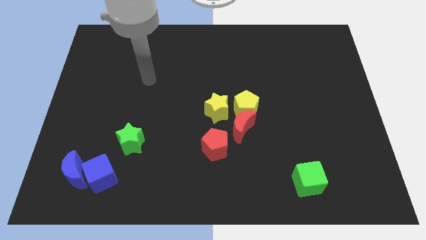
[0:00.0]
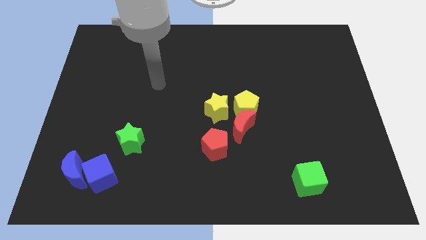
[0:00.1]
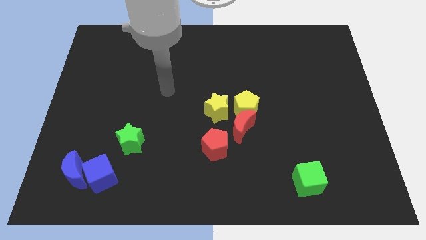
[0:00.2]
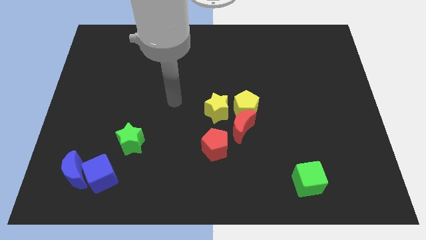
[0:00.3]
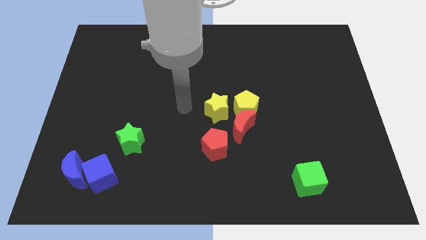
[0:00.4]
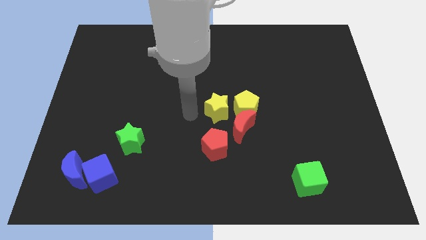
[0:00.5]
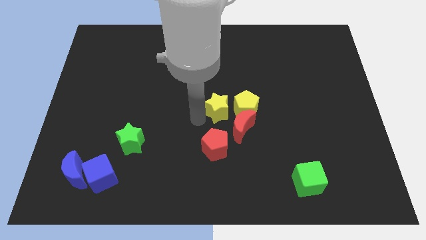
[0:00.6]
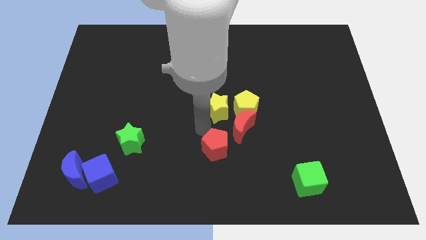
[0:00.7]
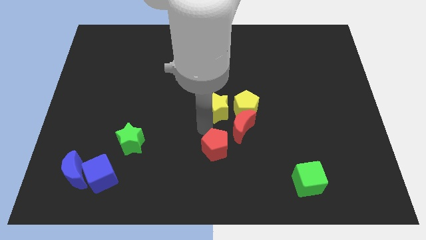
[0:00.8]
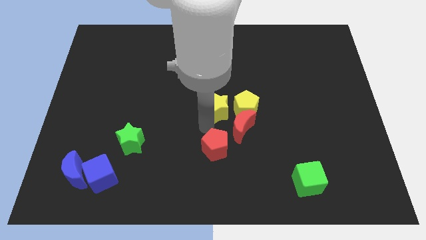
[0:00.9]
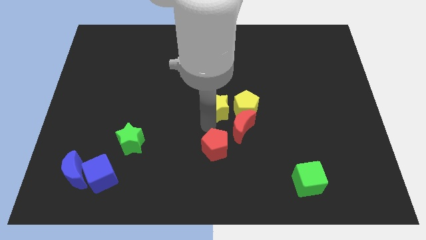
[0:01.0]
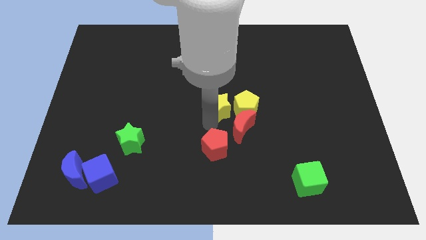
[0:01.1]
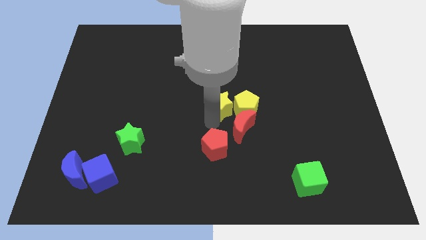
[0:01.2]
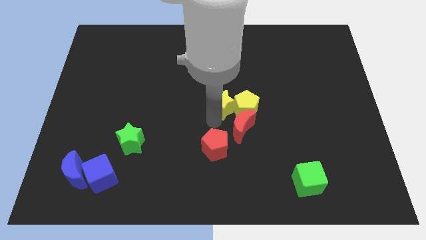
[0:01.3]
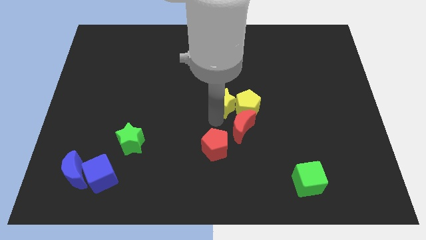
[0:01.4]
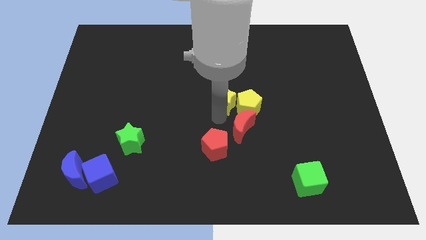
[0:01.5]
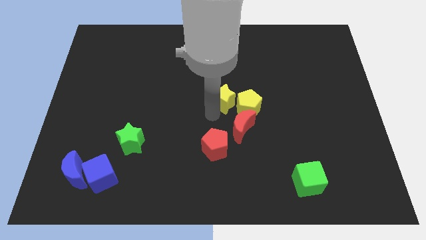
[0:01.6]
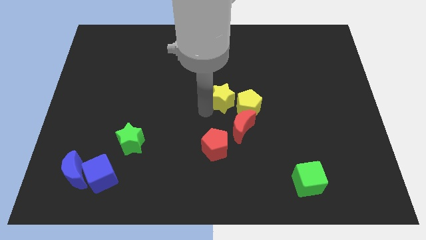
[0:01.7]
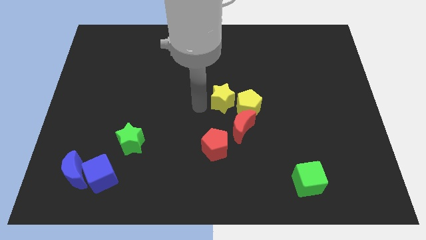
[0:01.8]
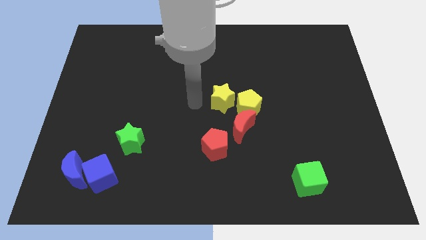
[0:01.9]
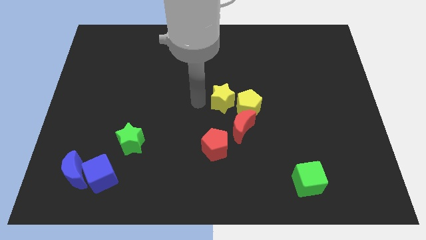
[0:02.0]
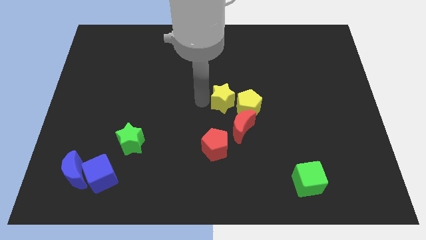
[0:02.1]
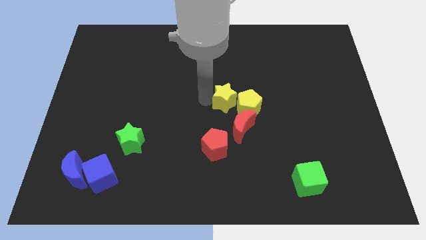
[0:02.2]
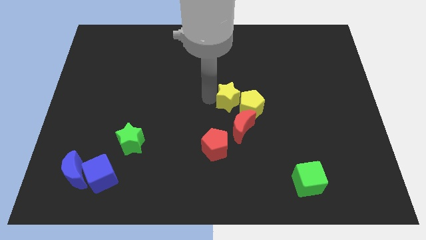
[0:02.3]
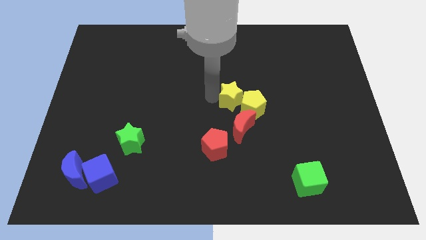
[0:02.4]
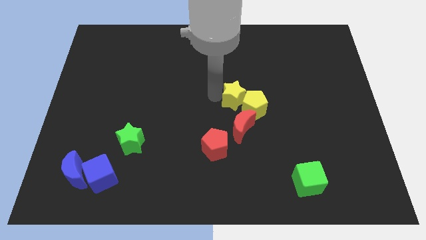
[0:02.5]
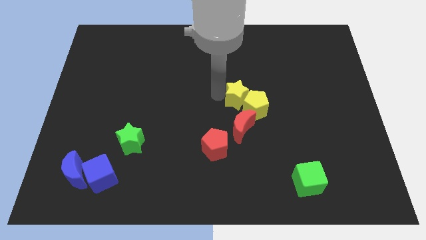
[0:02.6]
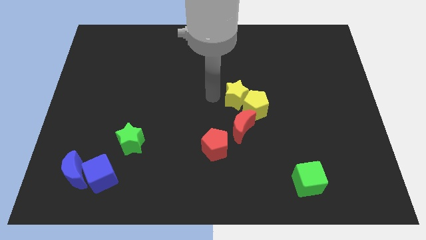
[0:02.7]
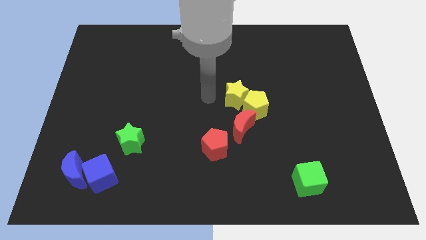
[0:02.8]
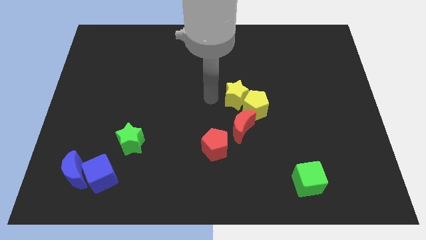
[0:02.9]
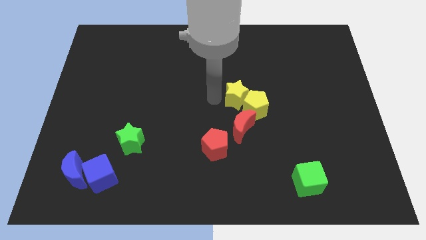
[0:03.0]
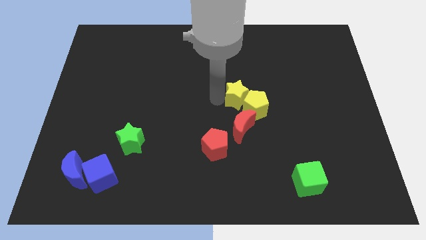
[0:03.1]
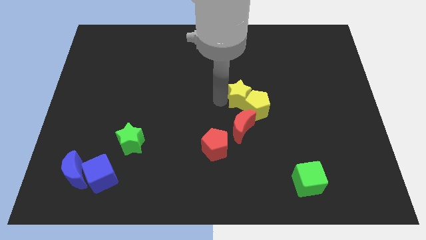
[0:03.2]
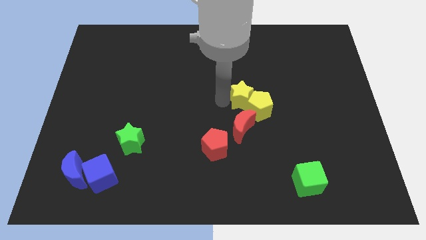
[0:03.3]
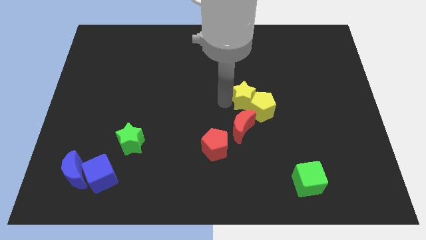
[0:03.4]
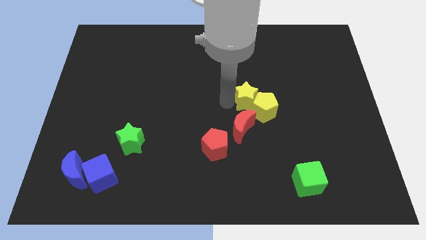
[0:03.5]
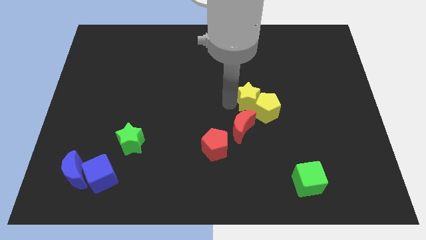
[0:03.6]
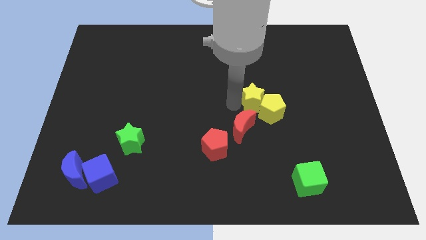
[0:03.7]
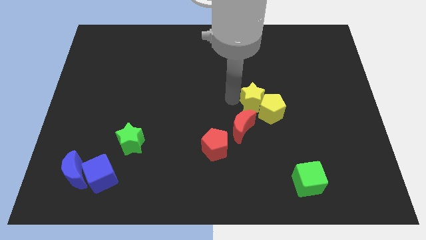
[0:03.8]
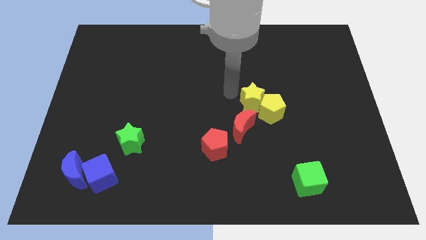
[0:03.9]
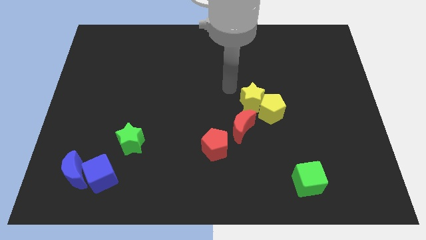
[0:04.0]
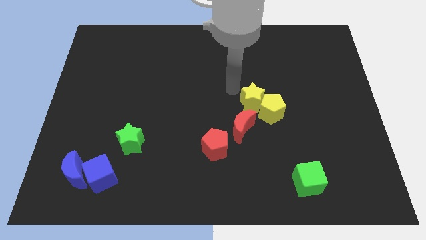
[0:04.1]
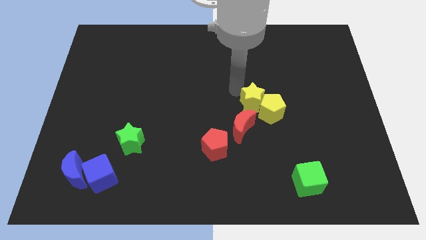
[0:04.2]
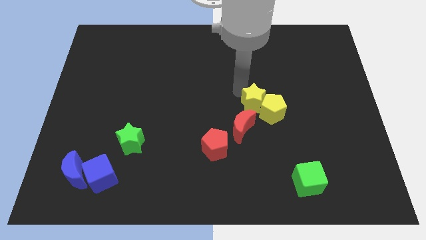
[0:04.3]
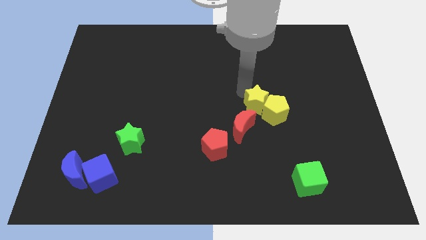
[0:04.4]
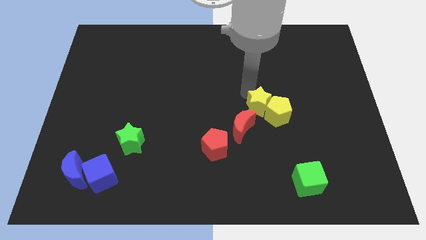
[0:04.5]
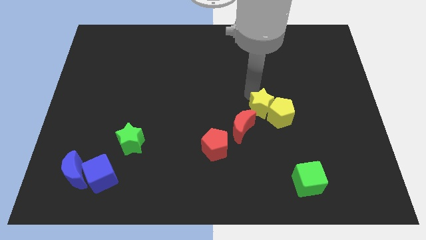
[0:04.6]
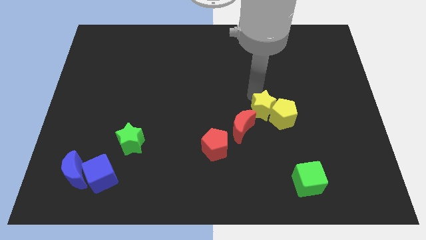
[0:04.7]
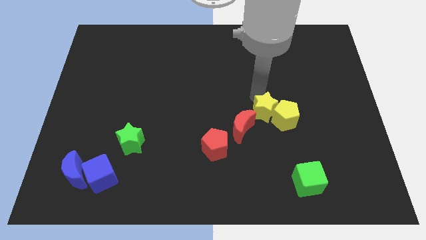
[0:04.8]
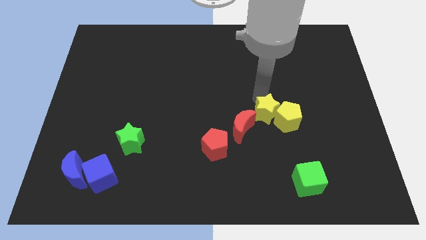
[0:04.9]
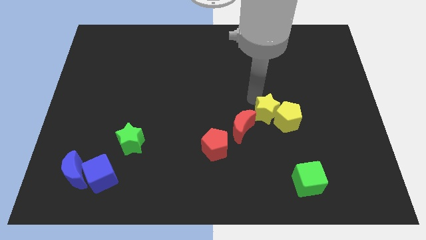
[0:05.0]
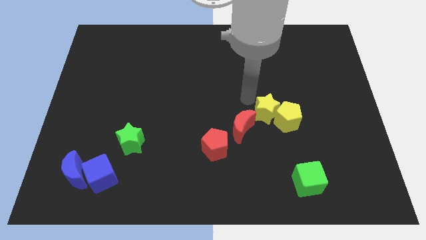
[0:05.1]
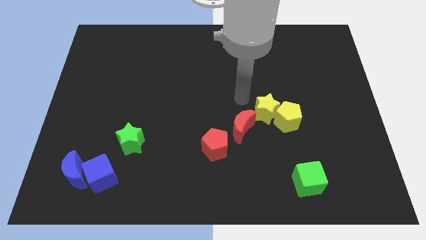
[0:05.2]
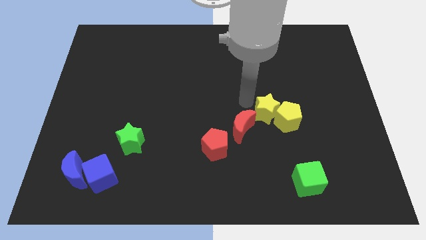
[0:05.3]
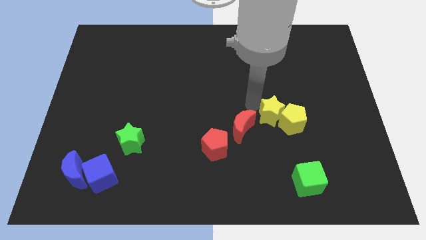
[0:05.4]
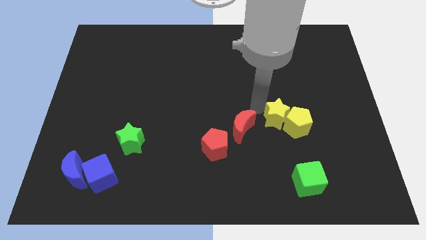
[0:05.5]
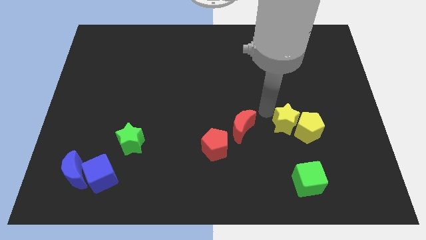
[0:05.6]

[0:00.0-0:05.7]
put the yellow star above the green cube

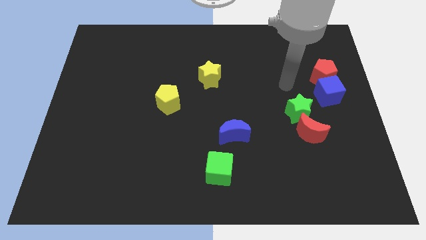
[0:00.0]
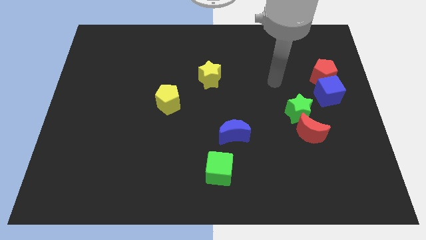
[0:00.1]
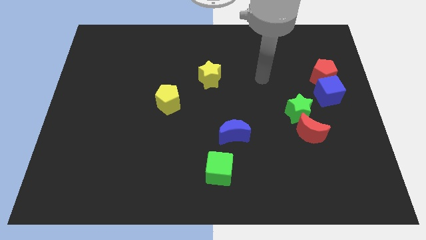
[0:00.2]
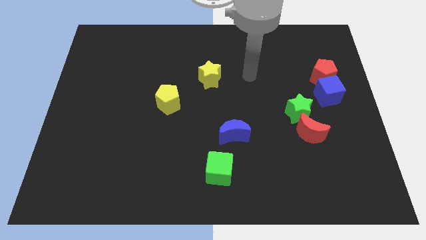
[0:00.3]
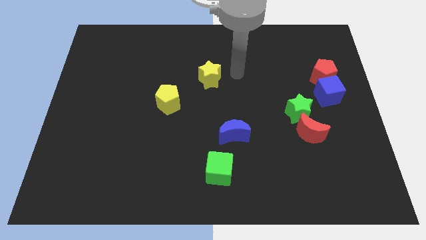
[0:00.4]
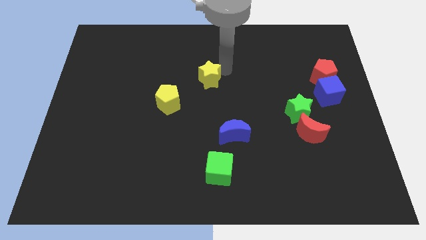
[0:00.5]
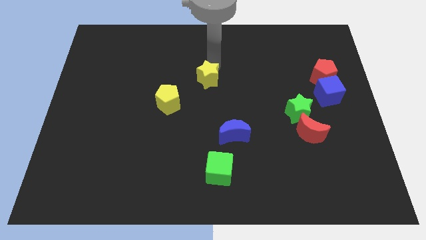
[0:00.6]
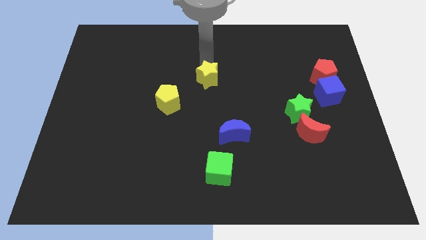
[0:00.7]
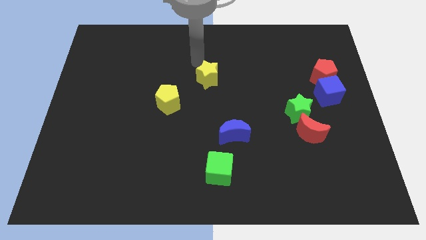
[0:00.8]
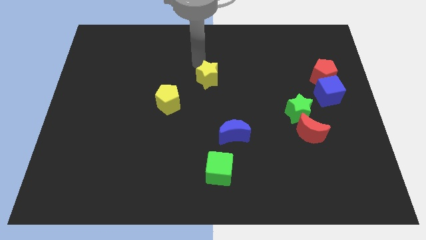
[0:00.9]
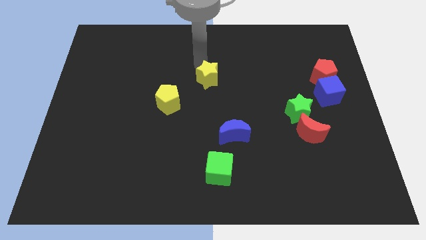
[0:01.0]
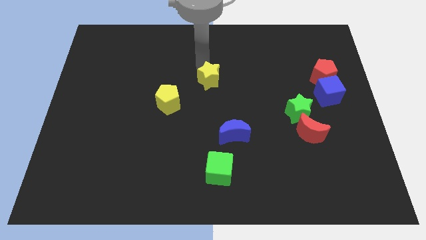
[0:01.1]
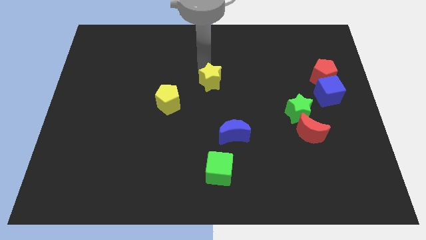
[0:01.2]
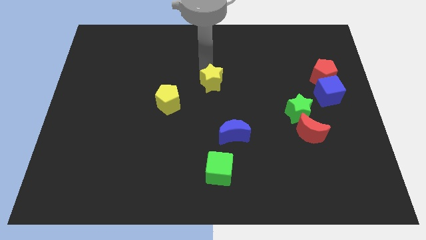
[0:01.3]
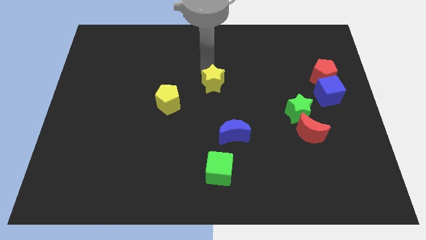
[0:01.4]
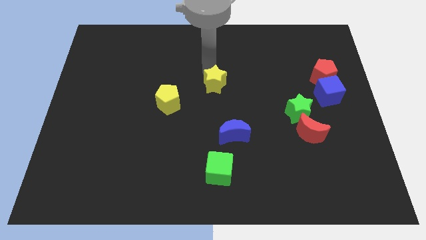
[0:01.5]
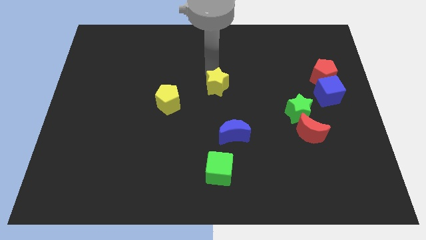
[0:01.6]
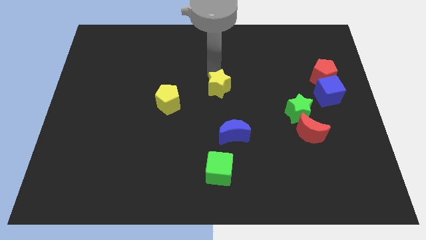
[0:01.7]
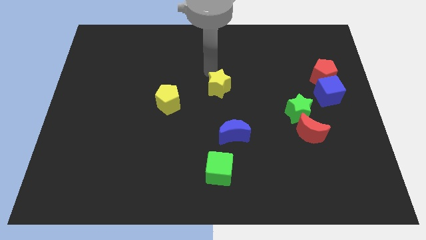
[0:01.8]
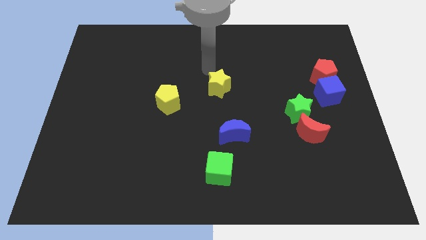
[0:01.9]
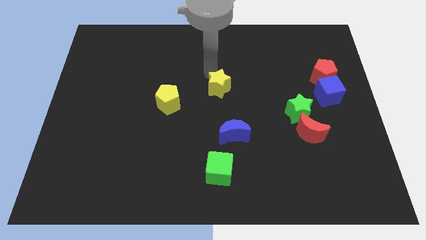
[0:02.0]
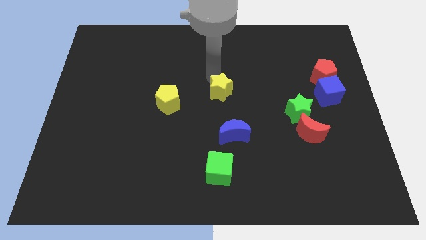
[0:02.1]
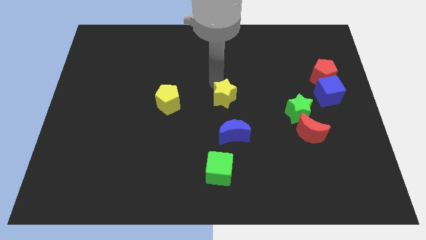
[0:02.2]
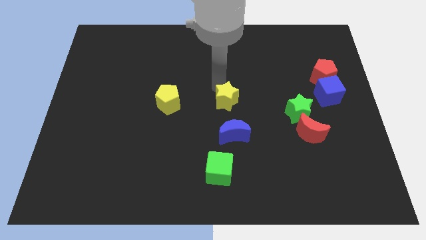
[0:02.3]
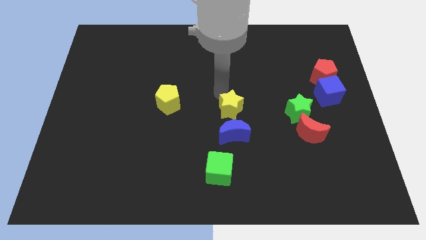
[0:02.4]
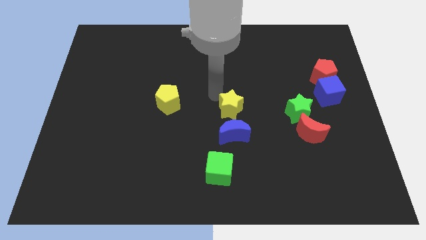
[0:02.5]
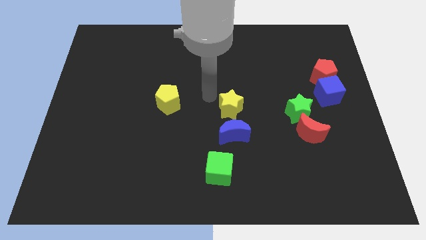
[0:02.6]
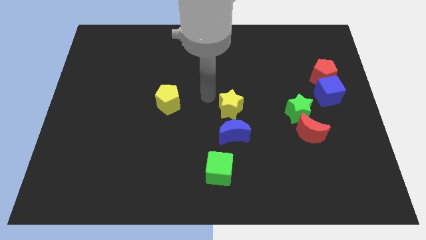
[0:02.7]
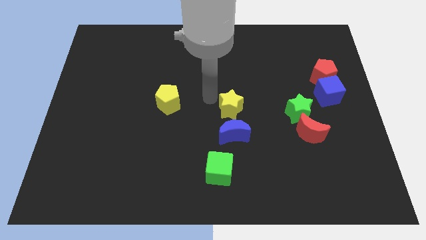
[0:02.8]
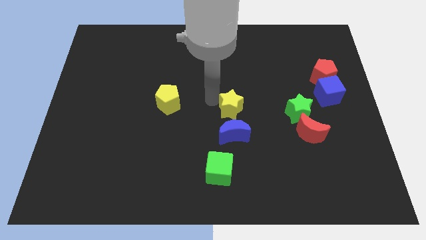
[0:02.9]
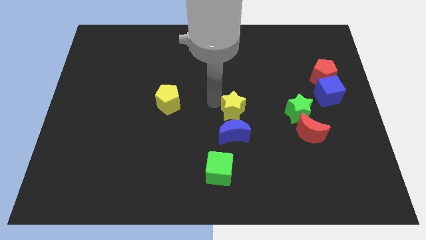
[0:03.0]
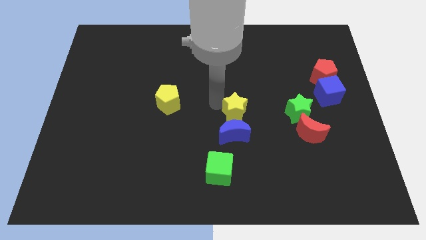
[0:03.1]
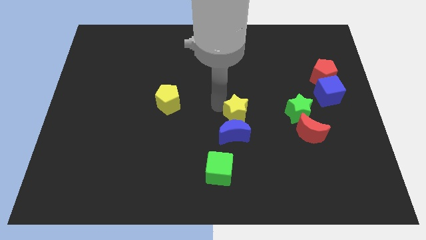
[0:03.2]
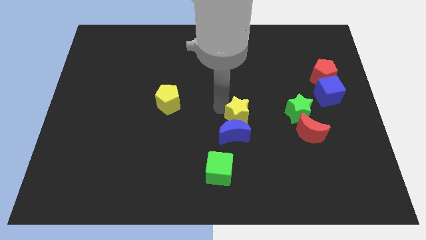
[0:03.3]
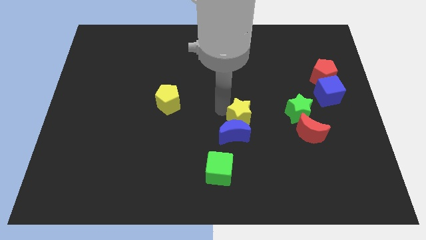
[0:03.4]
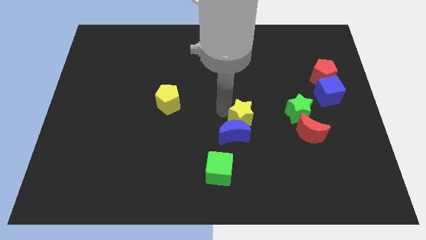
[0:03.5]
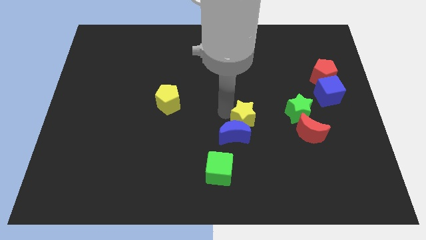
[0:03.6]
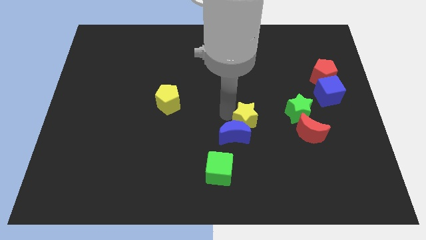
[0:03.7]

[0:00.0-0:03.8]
push the yellow star right of the blue moon
